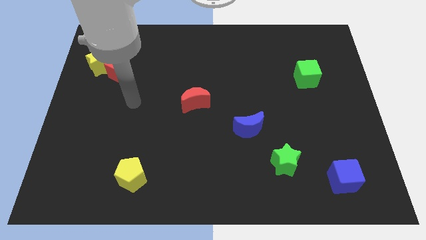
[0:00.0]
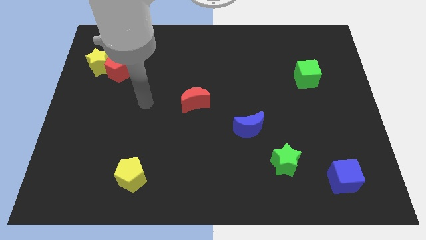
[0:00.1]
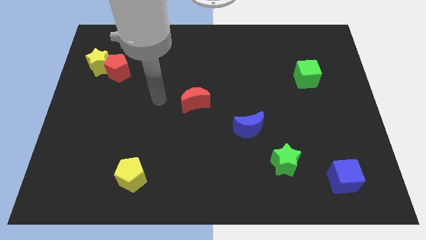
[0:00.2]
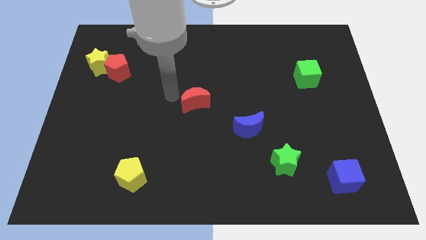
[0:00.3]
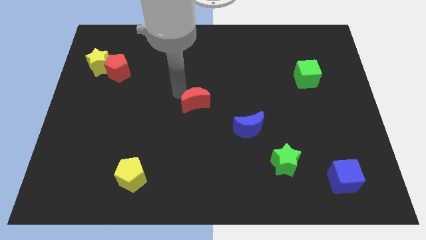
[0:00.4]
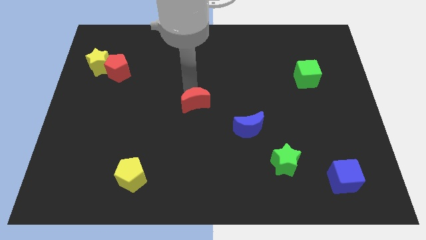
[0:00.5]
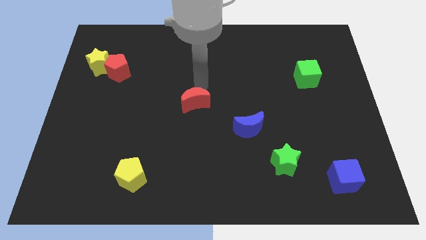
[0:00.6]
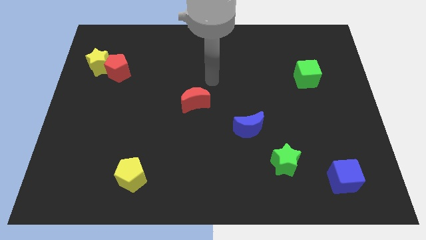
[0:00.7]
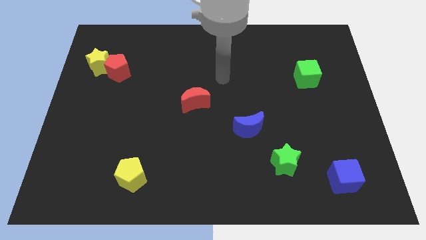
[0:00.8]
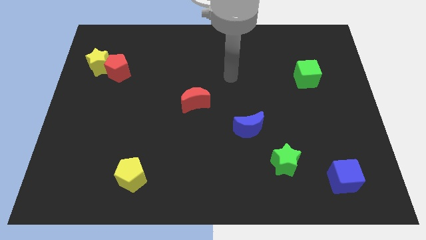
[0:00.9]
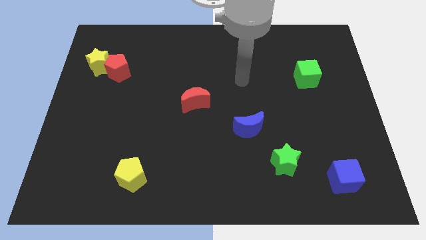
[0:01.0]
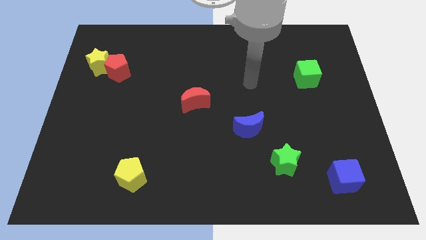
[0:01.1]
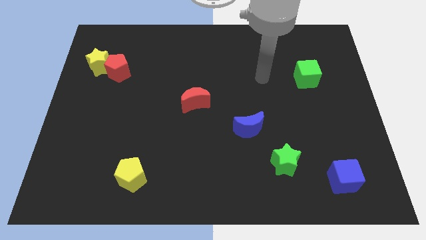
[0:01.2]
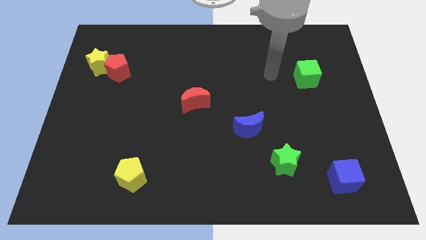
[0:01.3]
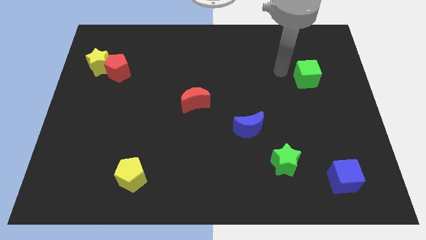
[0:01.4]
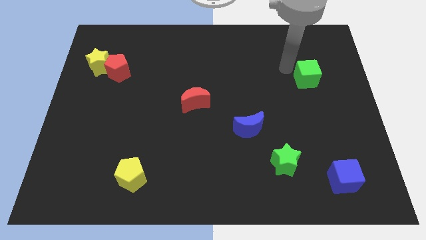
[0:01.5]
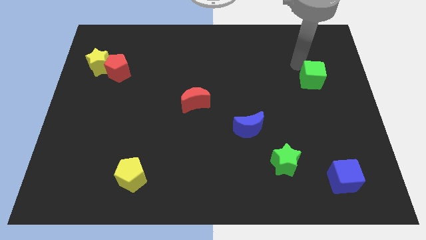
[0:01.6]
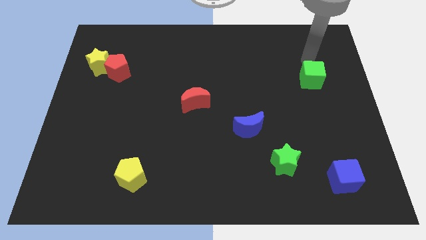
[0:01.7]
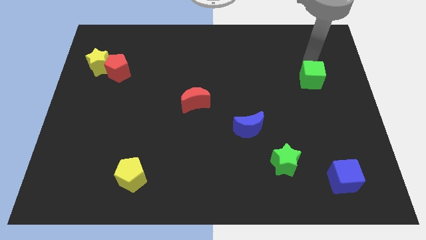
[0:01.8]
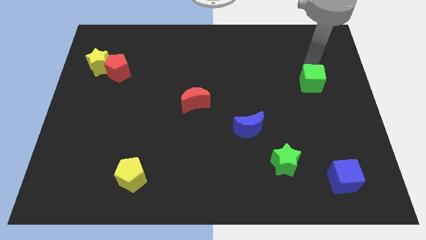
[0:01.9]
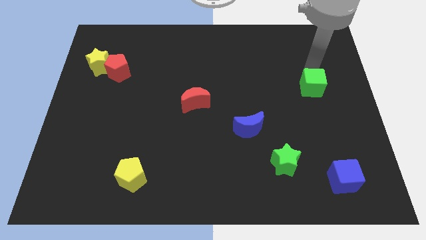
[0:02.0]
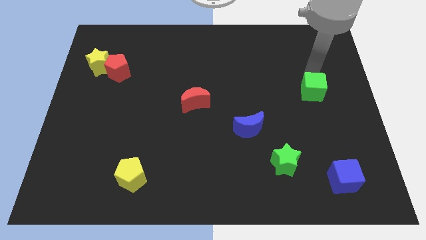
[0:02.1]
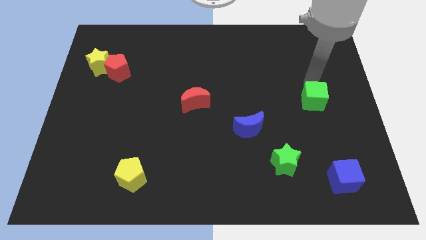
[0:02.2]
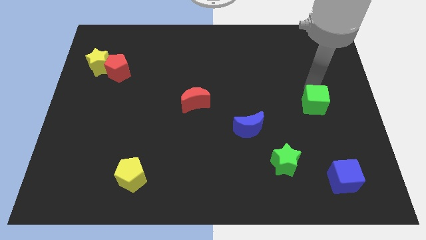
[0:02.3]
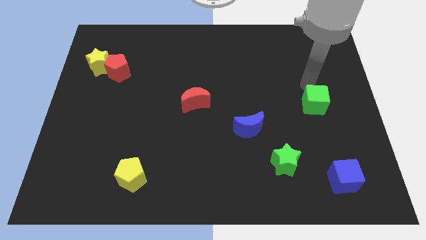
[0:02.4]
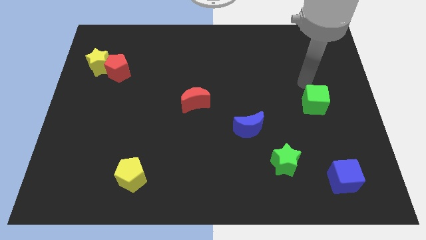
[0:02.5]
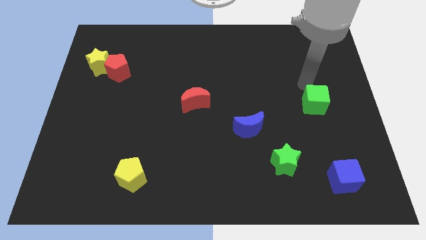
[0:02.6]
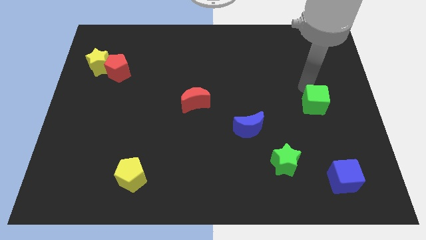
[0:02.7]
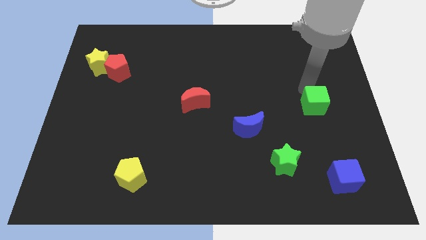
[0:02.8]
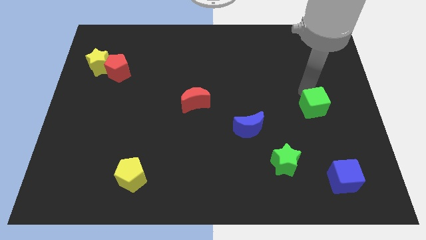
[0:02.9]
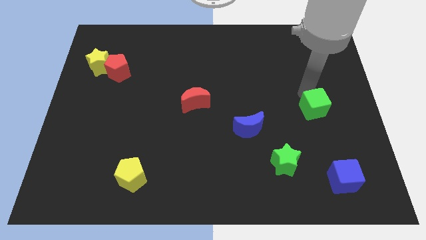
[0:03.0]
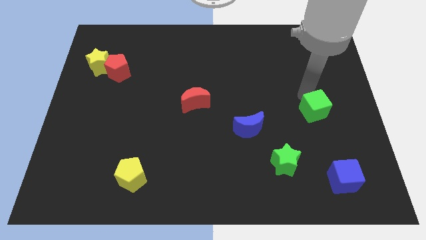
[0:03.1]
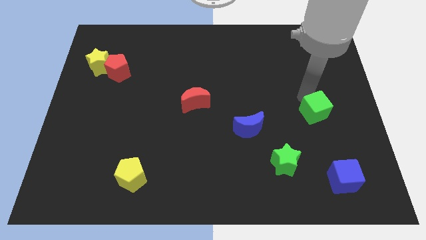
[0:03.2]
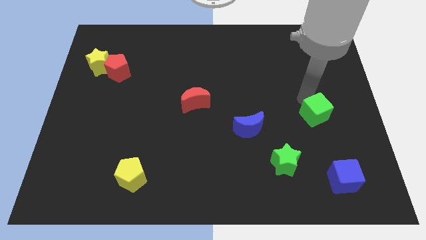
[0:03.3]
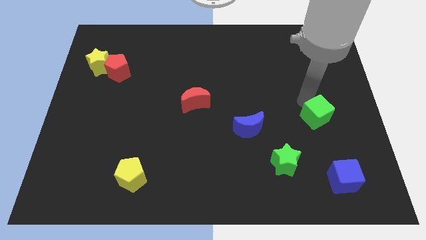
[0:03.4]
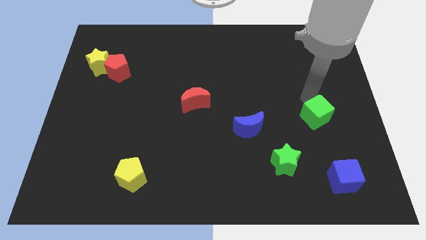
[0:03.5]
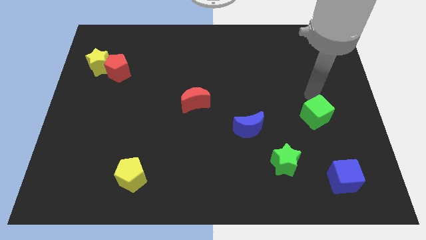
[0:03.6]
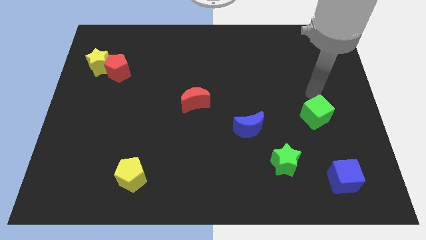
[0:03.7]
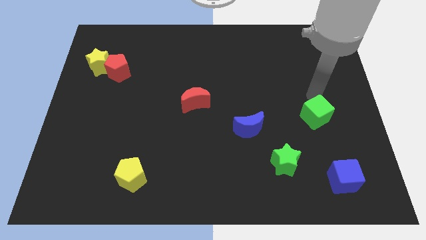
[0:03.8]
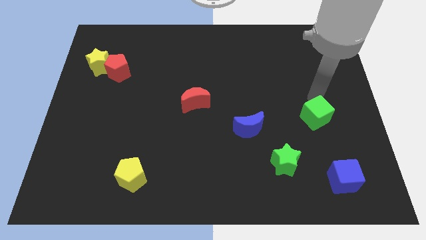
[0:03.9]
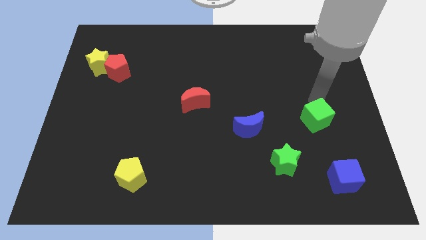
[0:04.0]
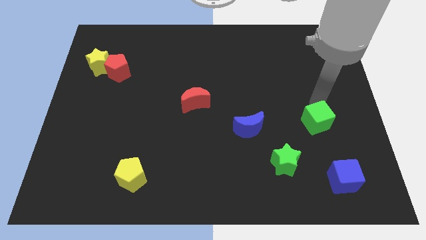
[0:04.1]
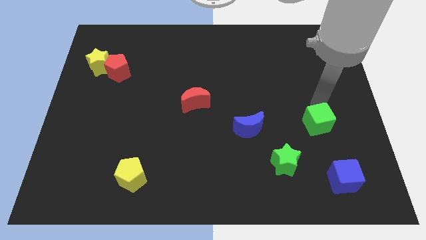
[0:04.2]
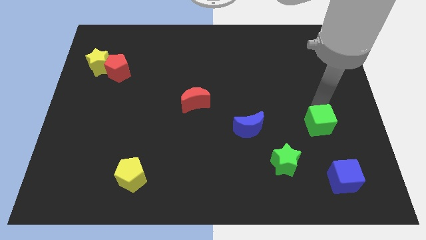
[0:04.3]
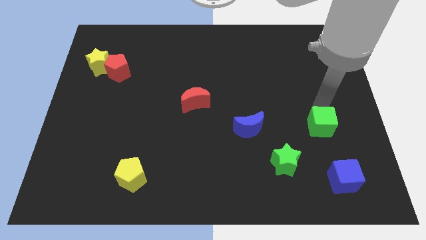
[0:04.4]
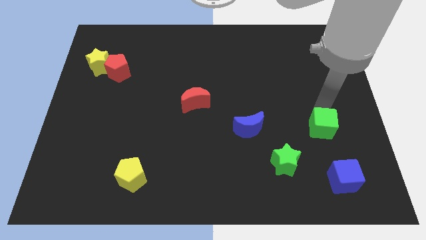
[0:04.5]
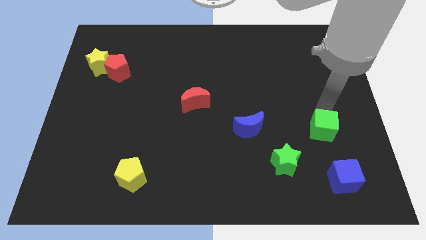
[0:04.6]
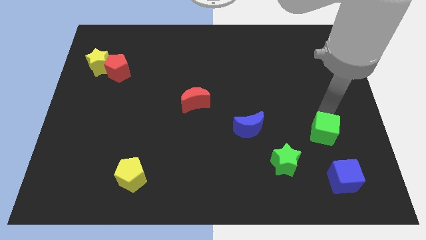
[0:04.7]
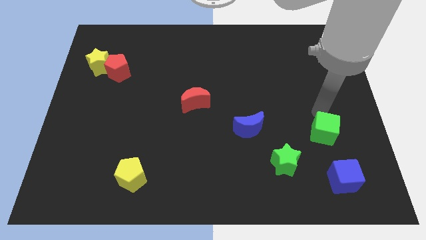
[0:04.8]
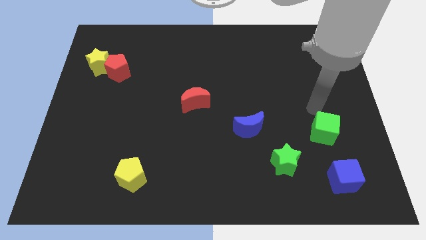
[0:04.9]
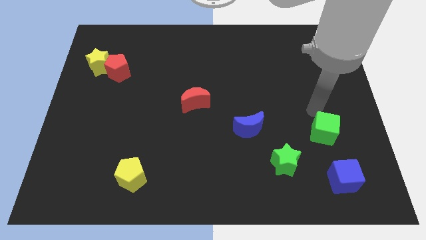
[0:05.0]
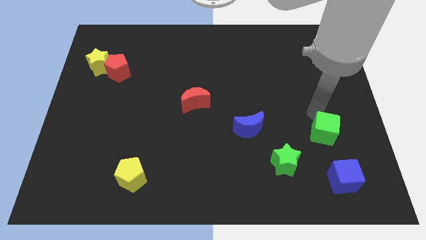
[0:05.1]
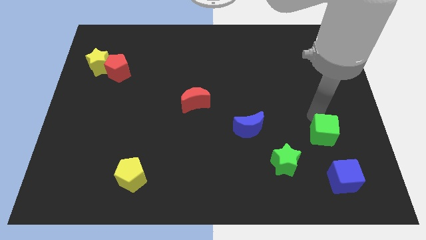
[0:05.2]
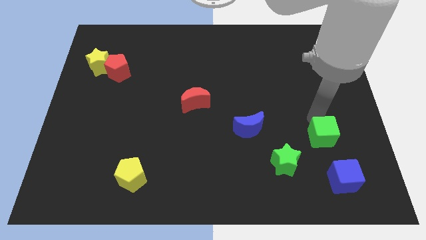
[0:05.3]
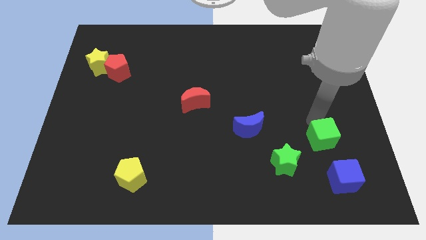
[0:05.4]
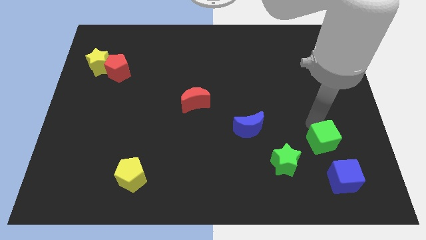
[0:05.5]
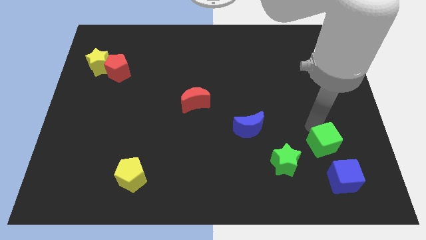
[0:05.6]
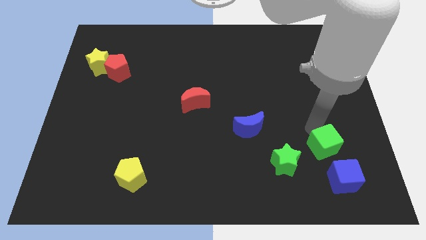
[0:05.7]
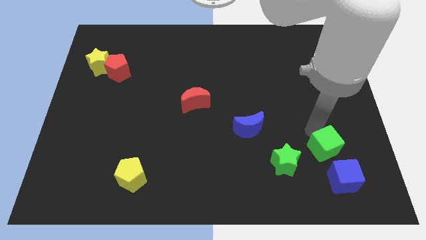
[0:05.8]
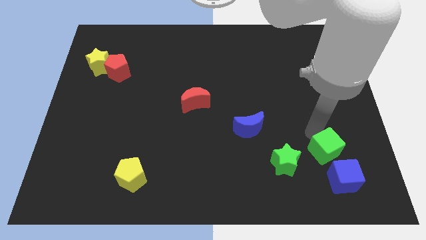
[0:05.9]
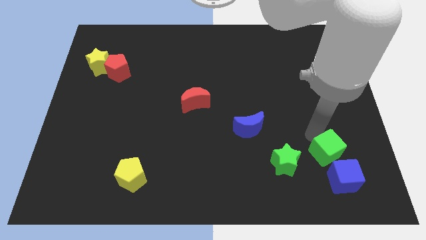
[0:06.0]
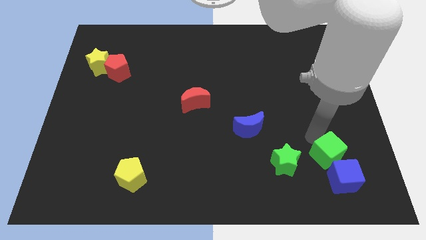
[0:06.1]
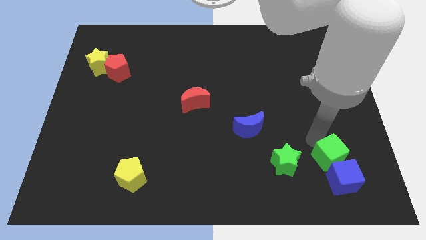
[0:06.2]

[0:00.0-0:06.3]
put the green cube to the blue cube

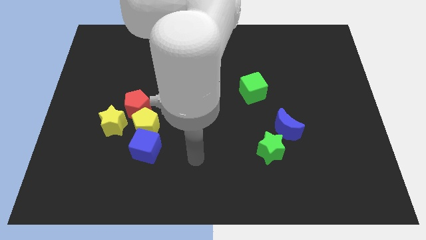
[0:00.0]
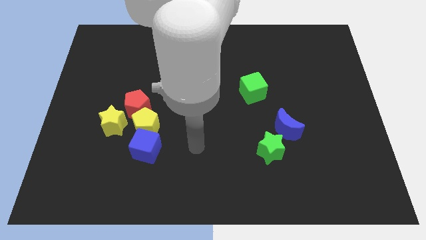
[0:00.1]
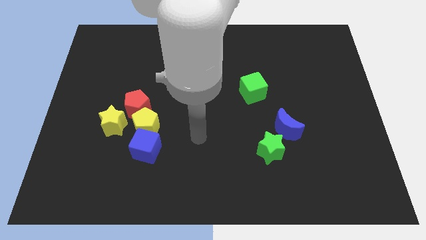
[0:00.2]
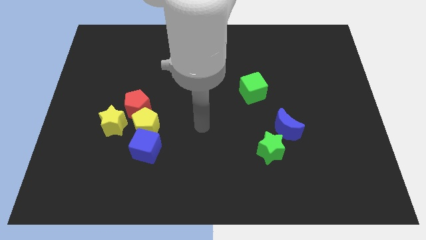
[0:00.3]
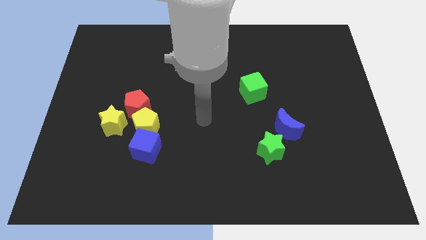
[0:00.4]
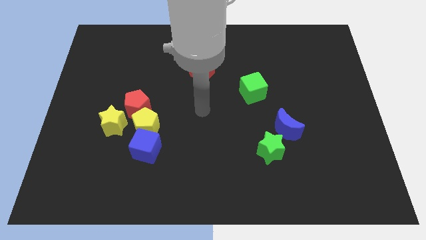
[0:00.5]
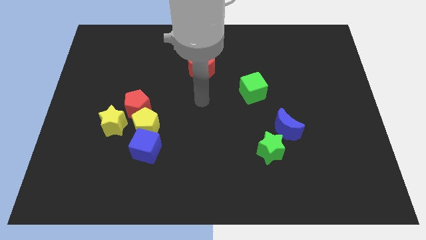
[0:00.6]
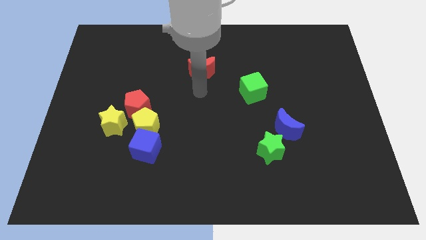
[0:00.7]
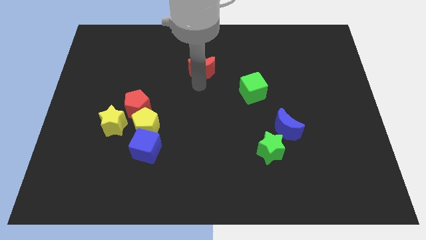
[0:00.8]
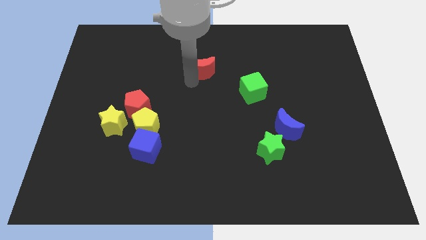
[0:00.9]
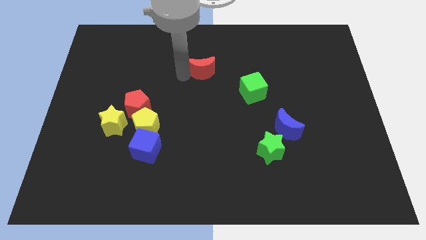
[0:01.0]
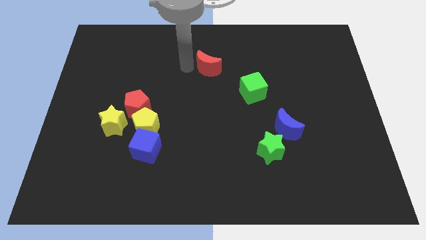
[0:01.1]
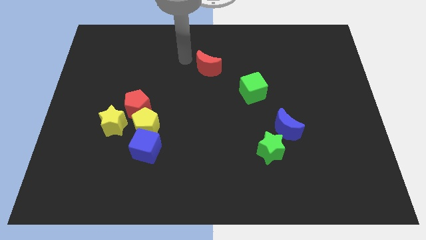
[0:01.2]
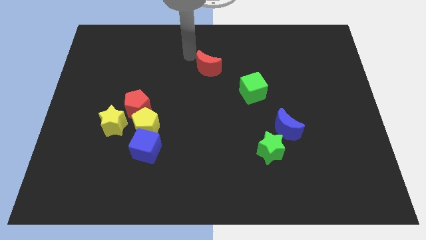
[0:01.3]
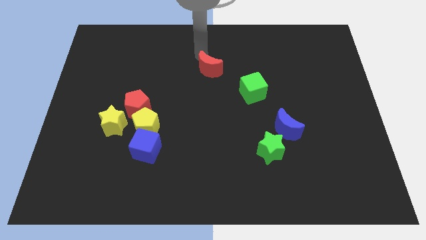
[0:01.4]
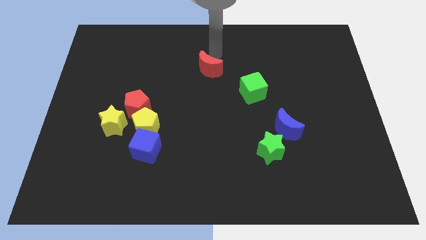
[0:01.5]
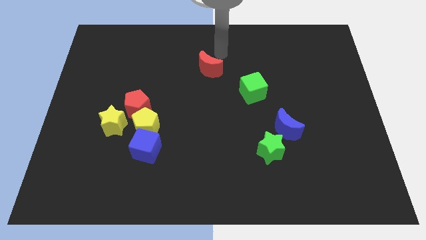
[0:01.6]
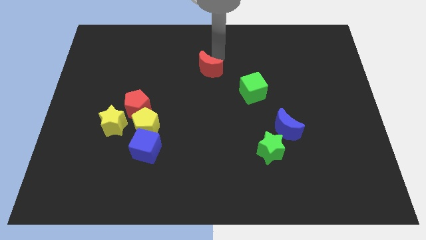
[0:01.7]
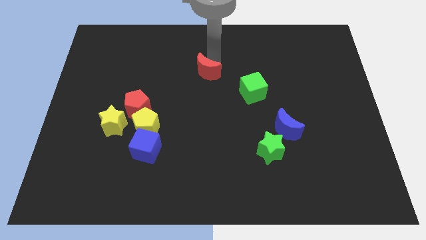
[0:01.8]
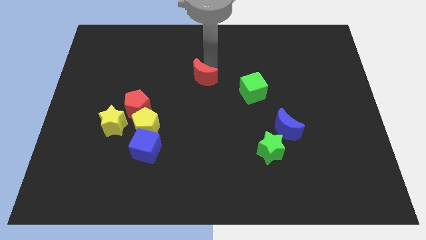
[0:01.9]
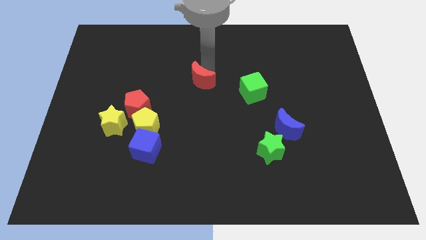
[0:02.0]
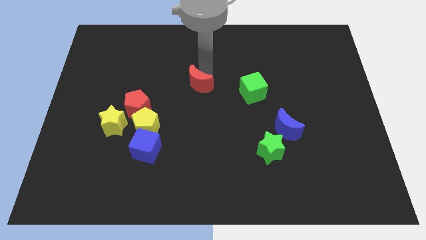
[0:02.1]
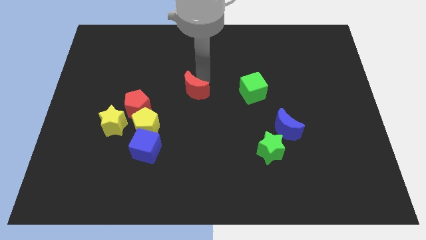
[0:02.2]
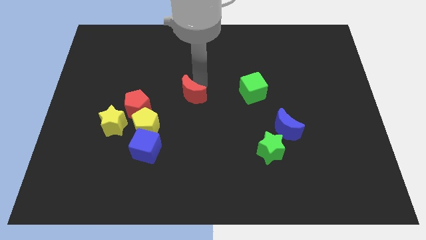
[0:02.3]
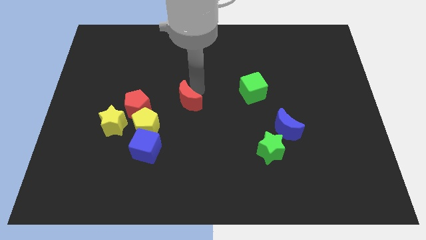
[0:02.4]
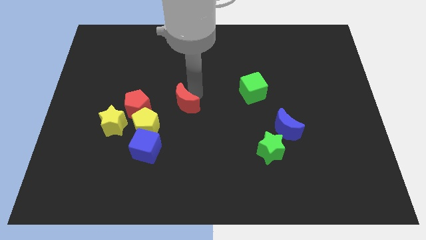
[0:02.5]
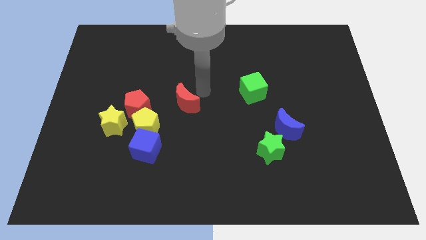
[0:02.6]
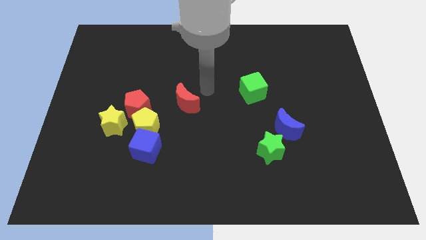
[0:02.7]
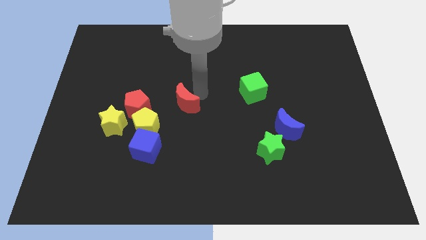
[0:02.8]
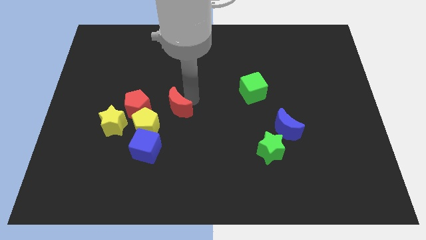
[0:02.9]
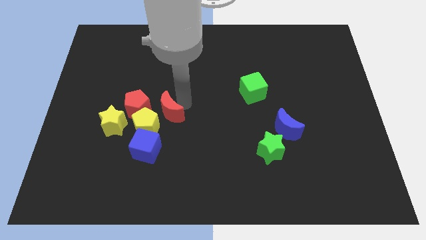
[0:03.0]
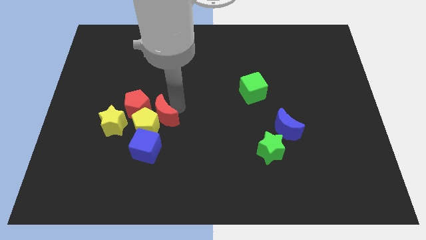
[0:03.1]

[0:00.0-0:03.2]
move the red moon towards the yellow pentagon
